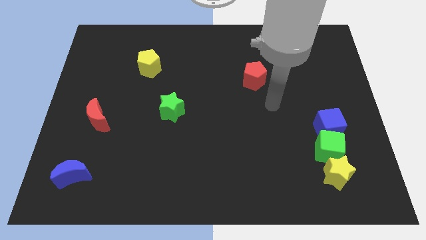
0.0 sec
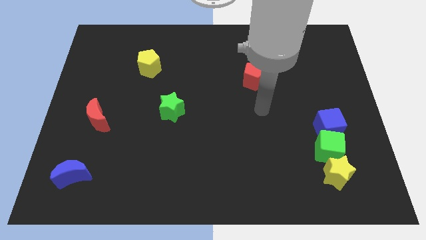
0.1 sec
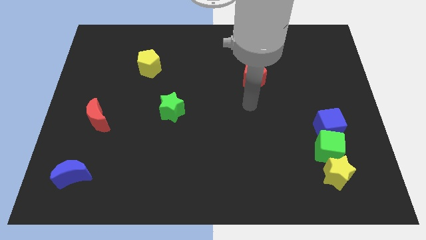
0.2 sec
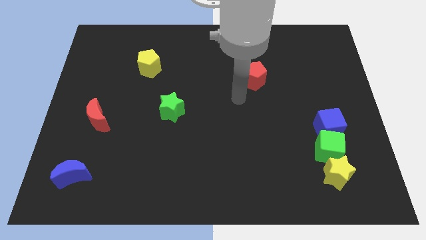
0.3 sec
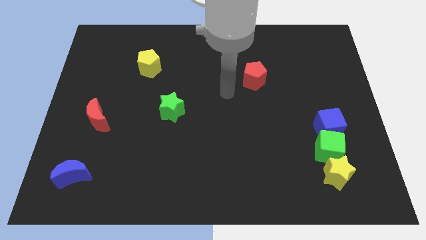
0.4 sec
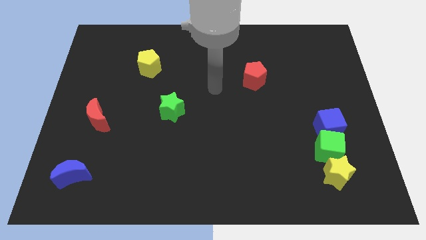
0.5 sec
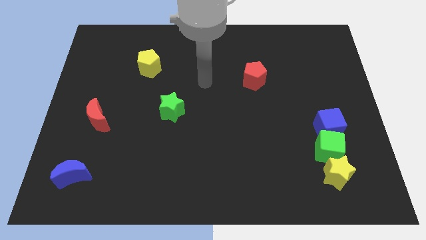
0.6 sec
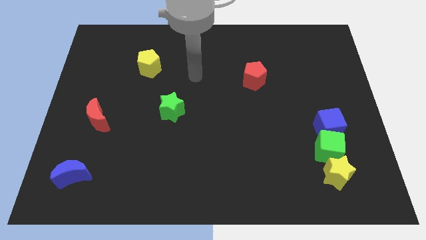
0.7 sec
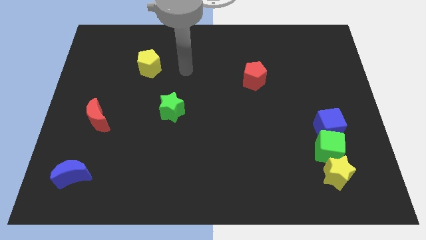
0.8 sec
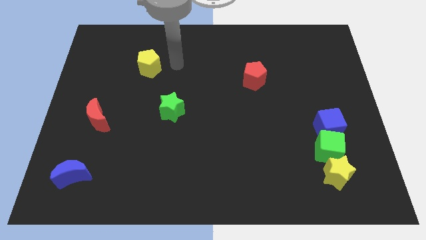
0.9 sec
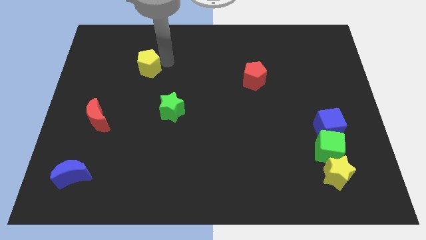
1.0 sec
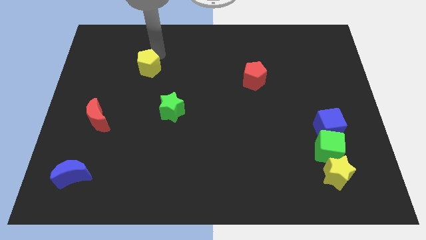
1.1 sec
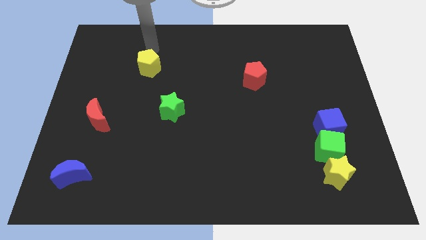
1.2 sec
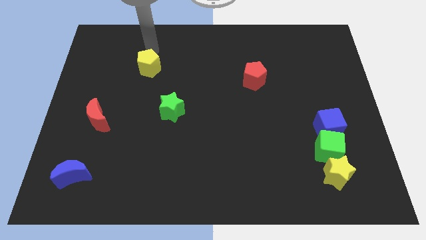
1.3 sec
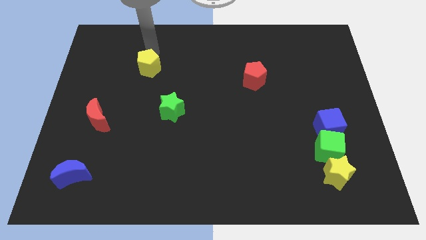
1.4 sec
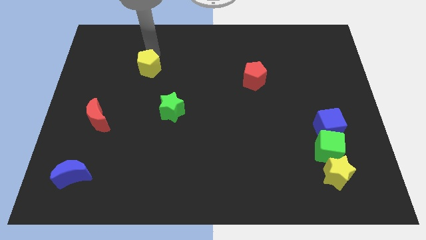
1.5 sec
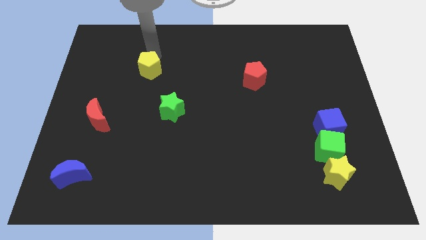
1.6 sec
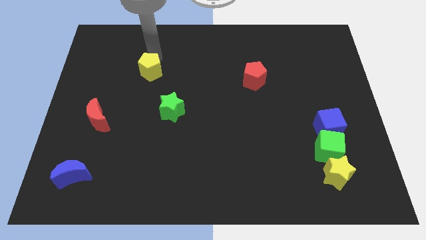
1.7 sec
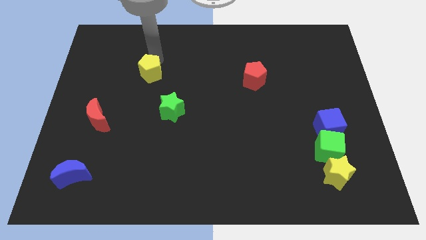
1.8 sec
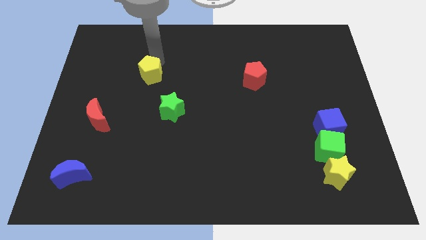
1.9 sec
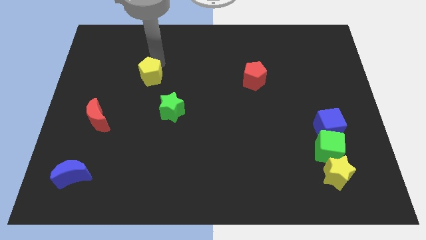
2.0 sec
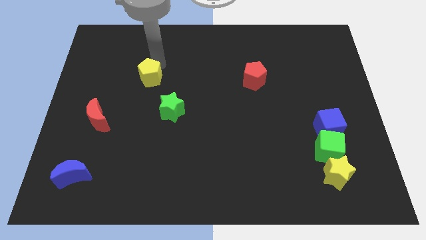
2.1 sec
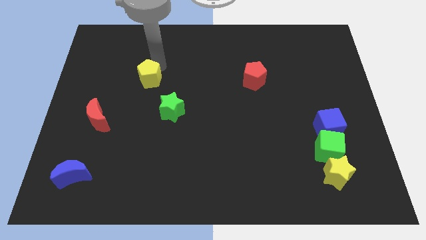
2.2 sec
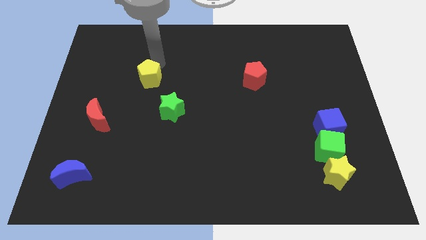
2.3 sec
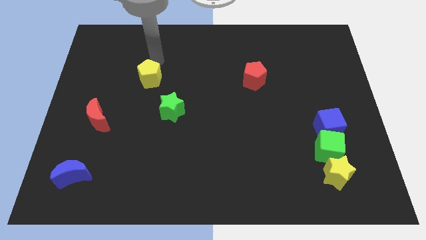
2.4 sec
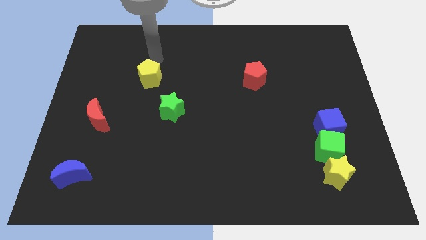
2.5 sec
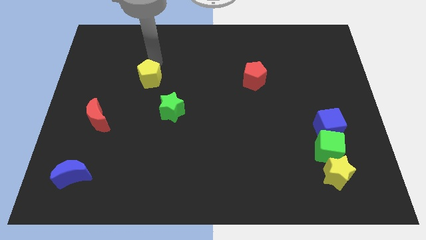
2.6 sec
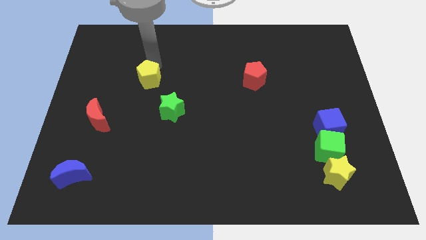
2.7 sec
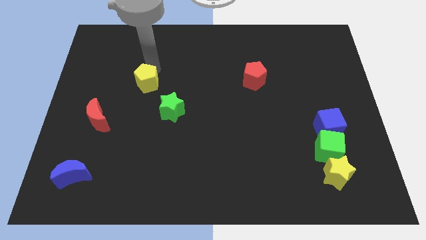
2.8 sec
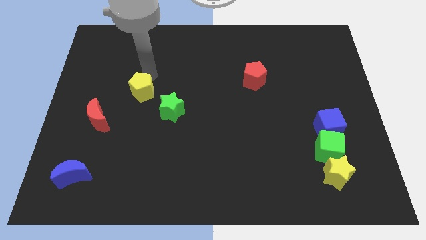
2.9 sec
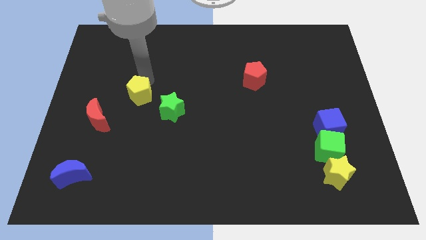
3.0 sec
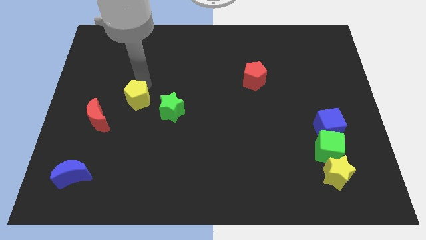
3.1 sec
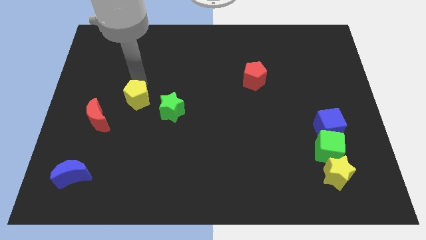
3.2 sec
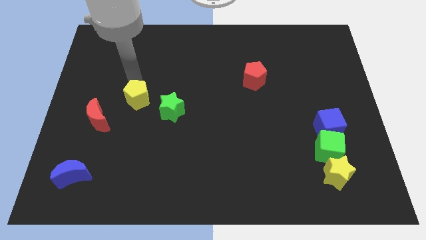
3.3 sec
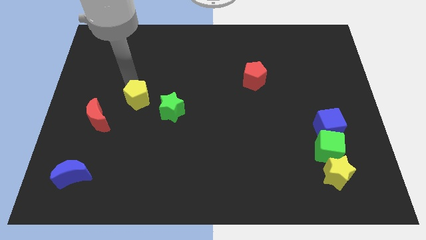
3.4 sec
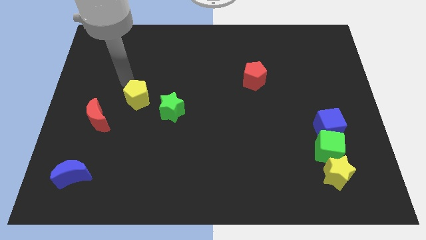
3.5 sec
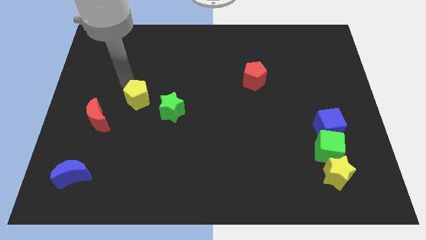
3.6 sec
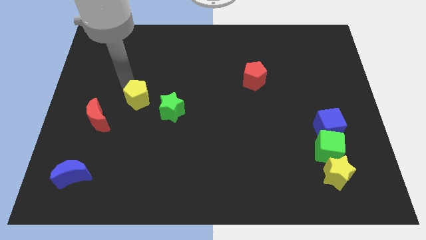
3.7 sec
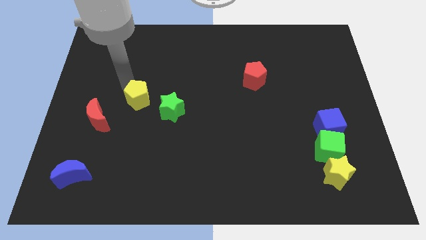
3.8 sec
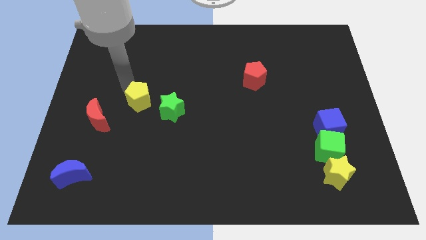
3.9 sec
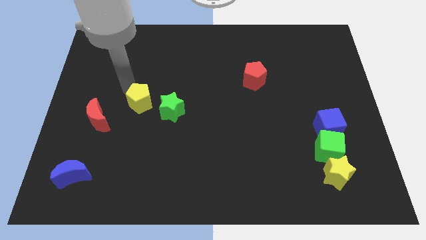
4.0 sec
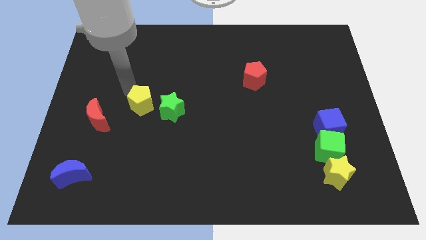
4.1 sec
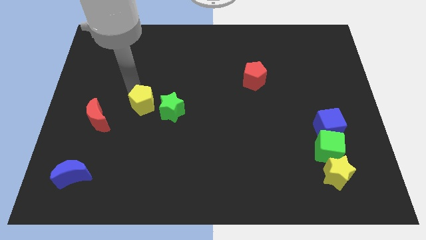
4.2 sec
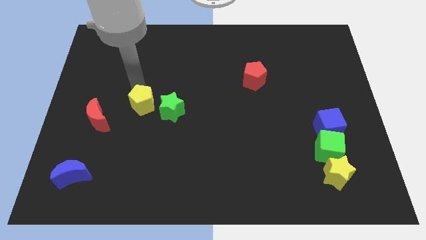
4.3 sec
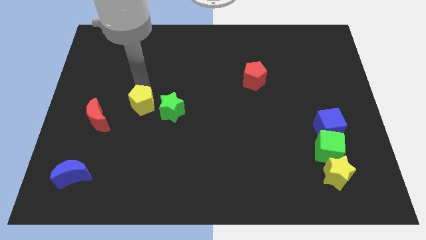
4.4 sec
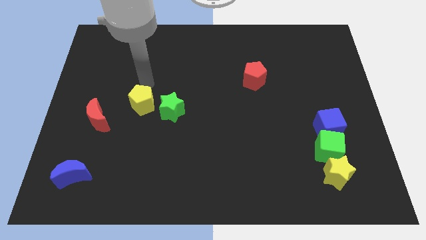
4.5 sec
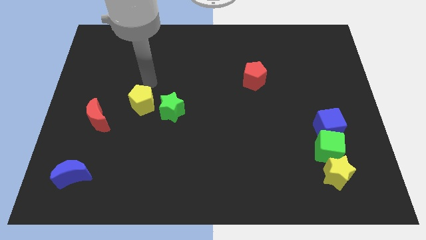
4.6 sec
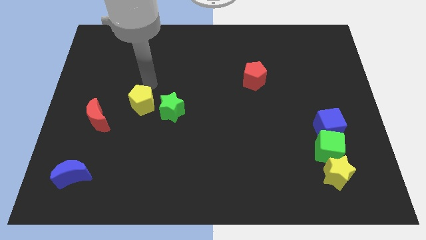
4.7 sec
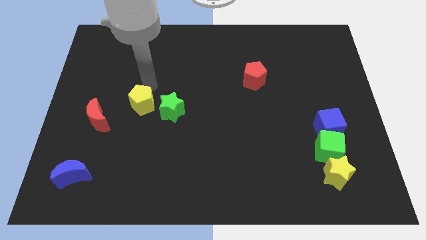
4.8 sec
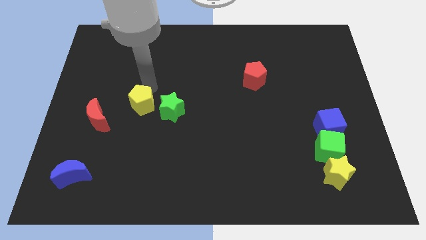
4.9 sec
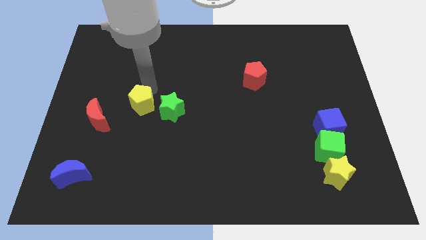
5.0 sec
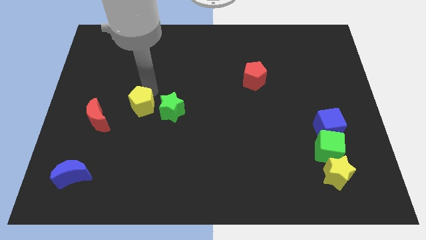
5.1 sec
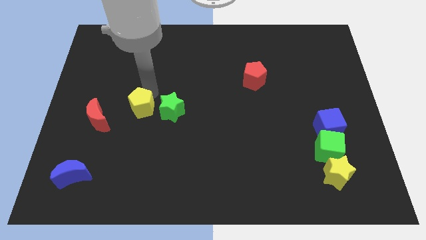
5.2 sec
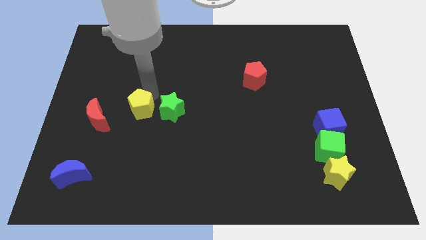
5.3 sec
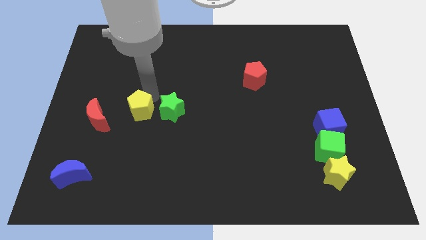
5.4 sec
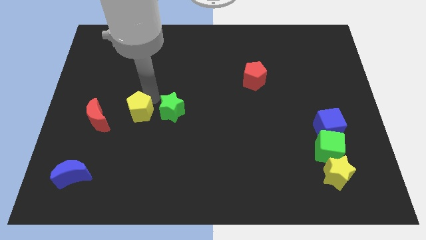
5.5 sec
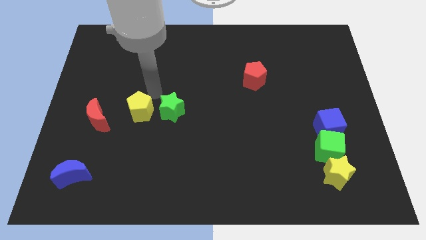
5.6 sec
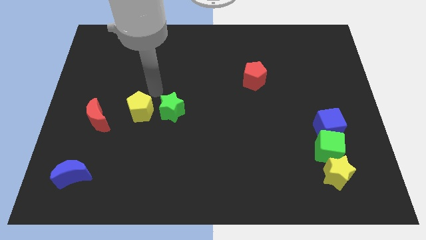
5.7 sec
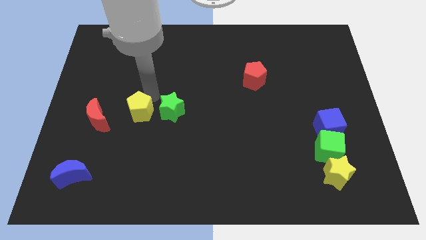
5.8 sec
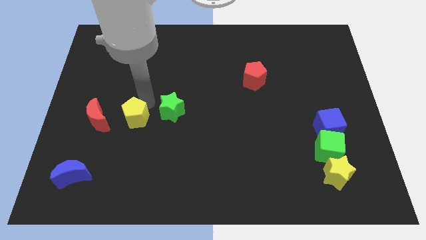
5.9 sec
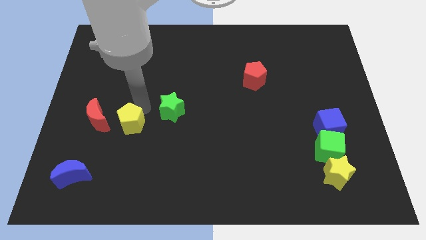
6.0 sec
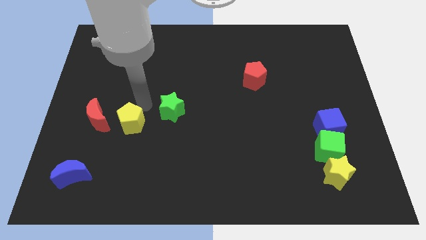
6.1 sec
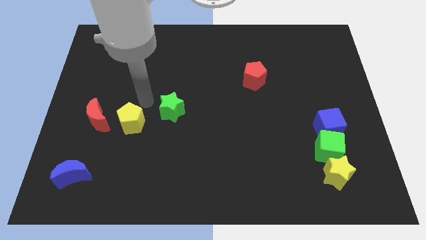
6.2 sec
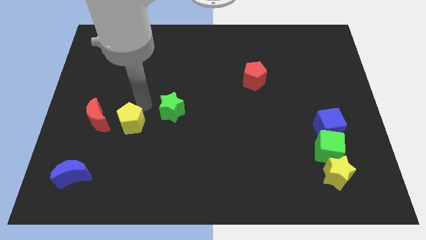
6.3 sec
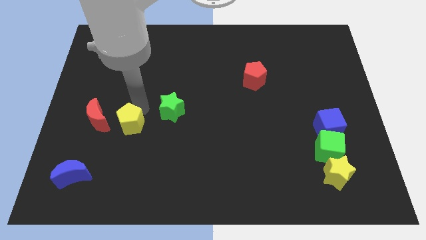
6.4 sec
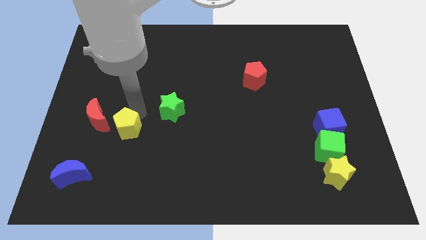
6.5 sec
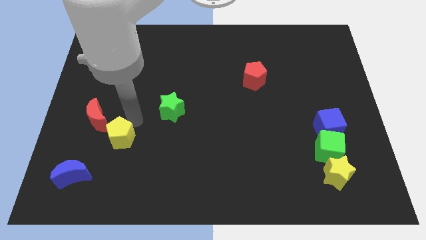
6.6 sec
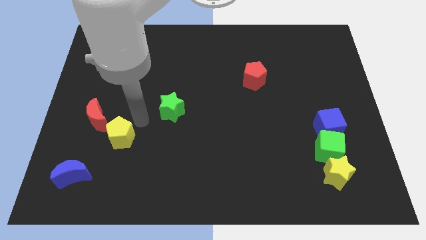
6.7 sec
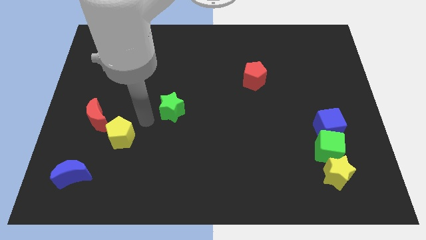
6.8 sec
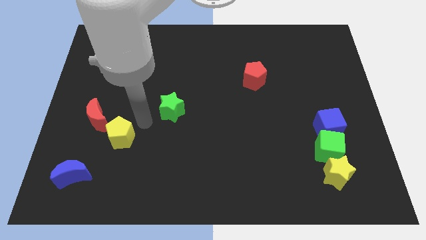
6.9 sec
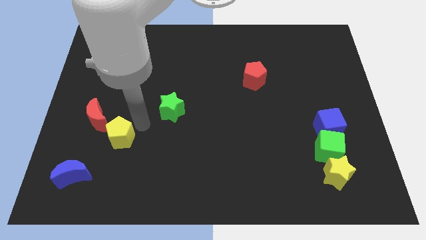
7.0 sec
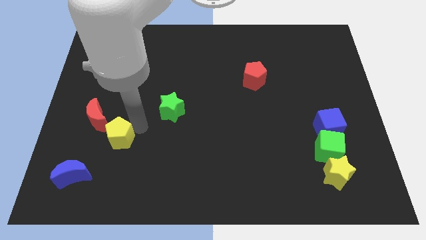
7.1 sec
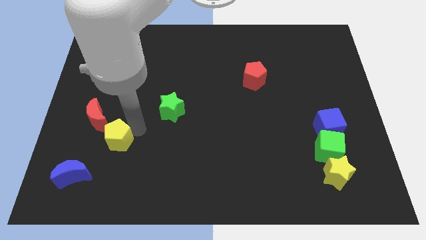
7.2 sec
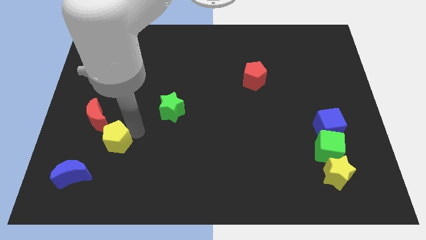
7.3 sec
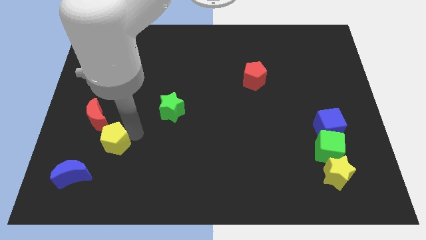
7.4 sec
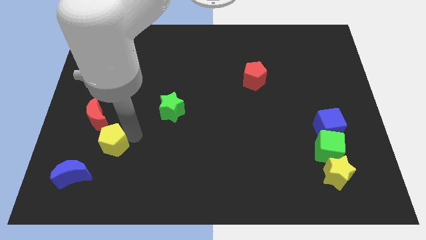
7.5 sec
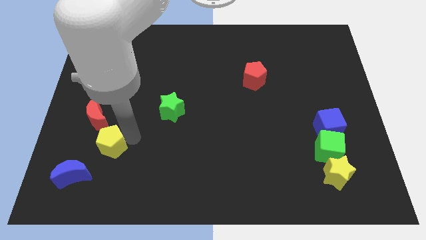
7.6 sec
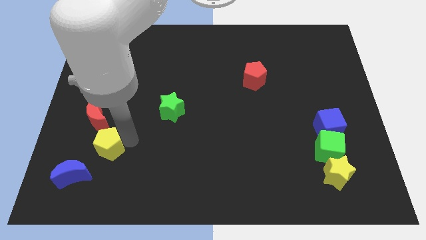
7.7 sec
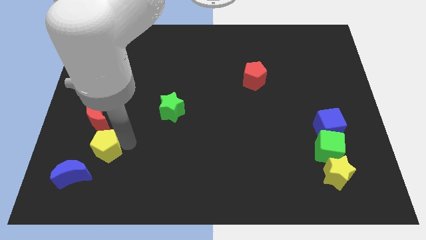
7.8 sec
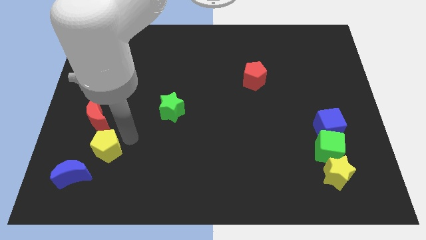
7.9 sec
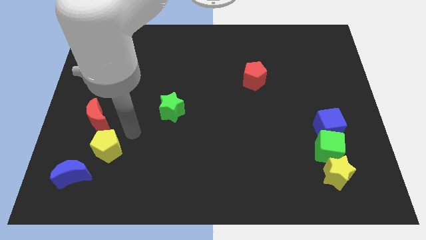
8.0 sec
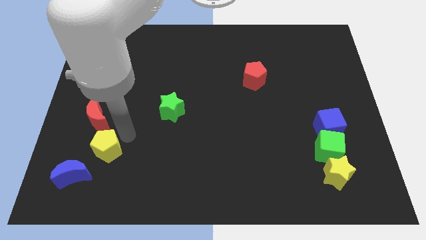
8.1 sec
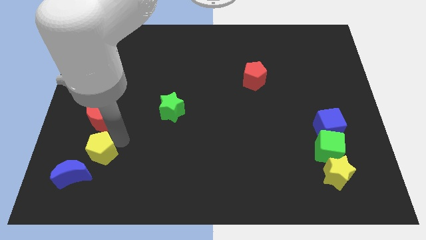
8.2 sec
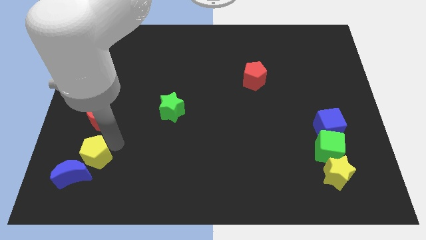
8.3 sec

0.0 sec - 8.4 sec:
put the yellow pentagon next to the blue moon
